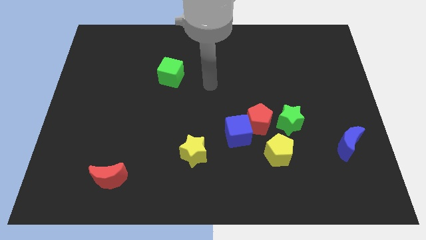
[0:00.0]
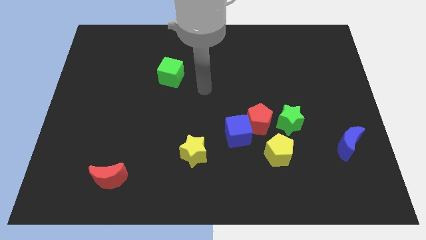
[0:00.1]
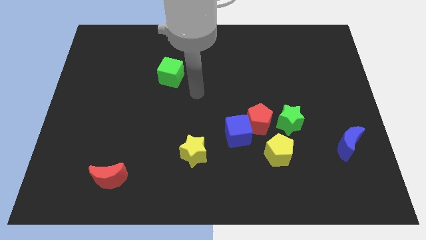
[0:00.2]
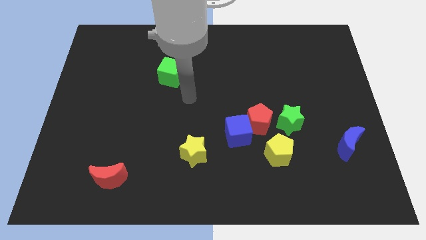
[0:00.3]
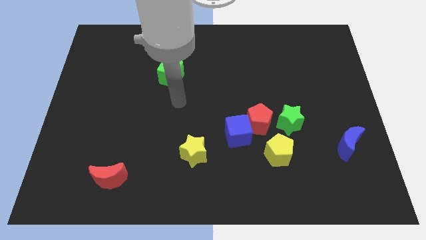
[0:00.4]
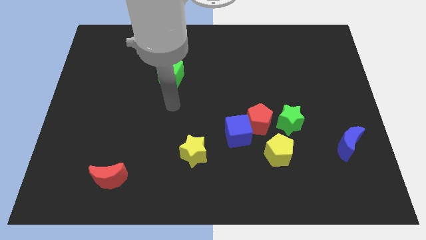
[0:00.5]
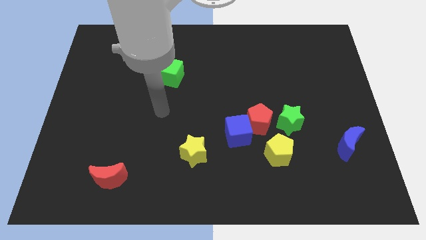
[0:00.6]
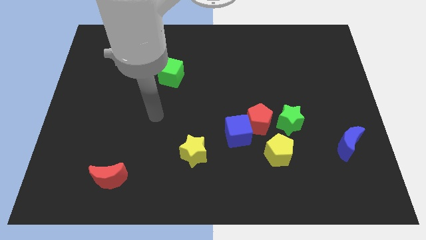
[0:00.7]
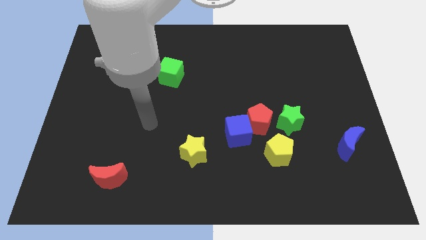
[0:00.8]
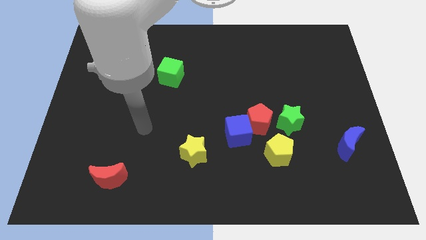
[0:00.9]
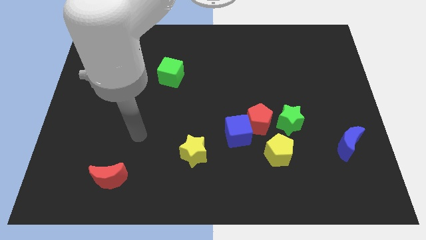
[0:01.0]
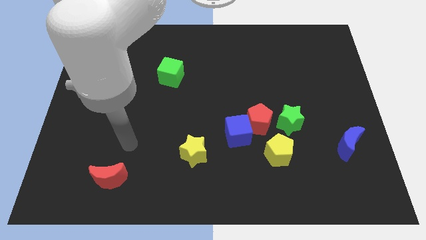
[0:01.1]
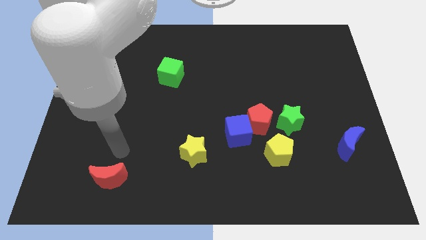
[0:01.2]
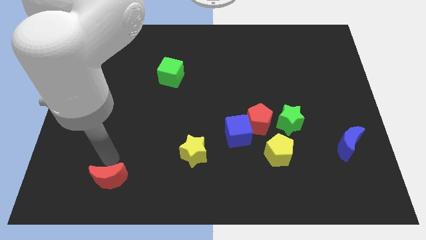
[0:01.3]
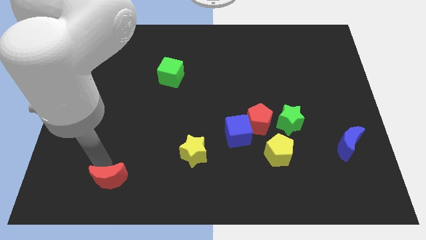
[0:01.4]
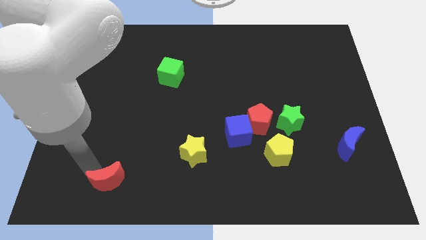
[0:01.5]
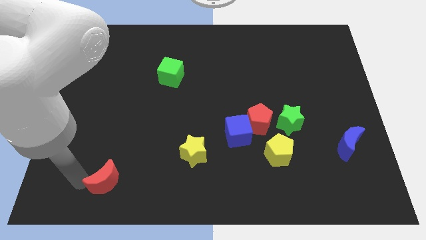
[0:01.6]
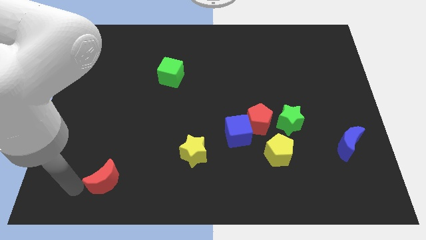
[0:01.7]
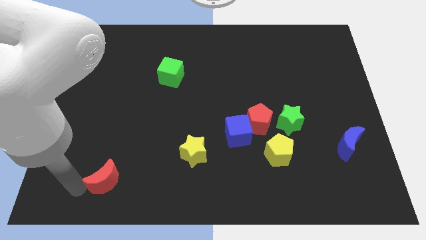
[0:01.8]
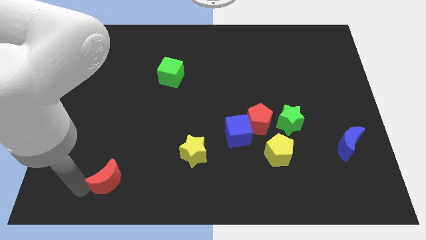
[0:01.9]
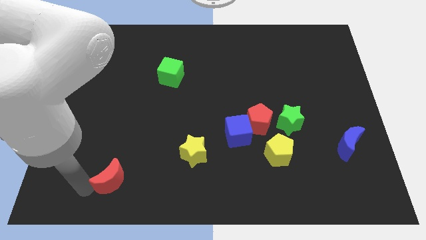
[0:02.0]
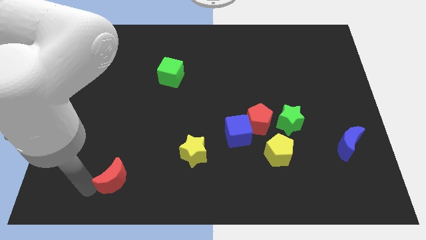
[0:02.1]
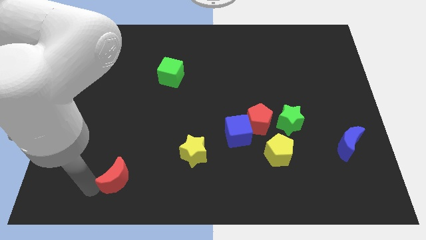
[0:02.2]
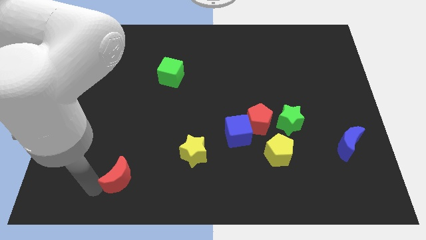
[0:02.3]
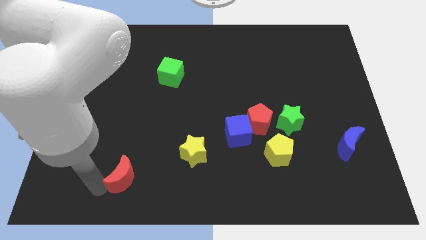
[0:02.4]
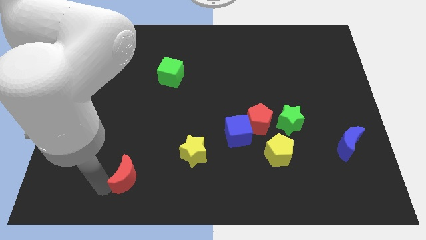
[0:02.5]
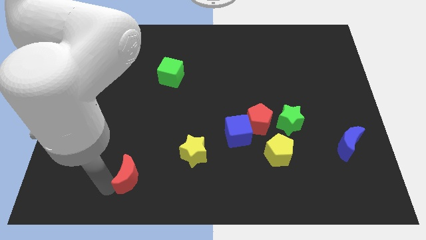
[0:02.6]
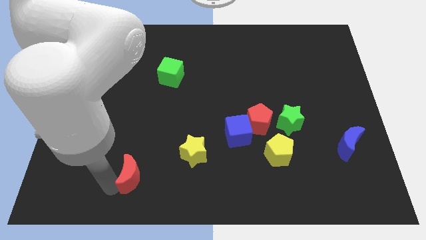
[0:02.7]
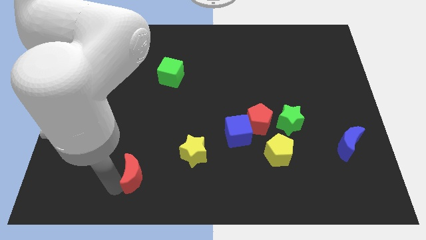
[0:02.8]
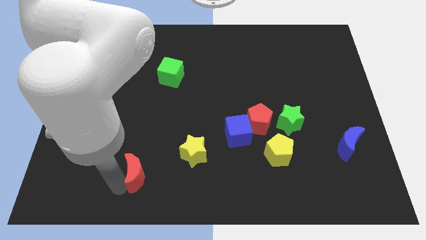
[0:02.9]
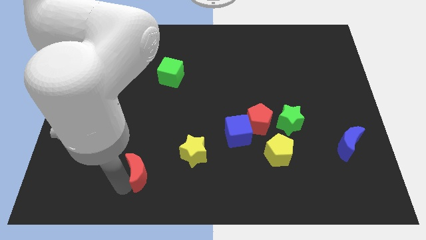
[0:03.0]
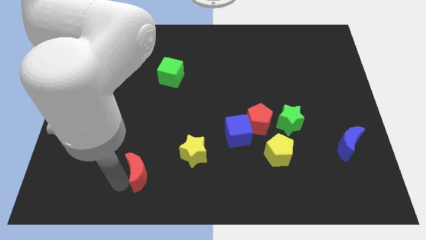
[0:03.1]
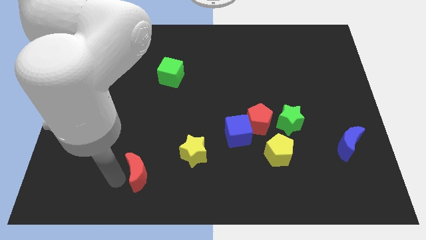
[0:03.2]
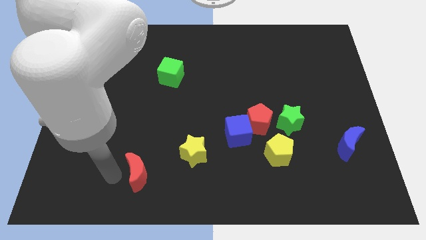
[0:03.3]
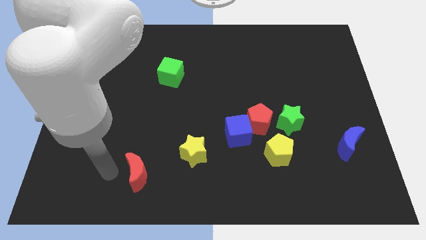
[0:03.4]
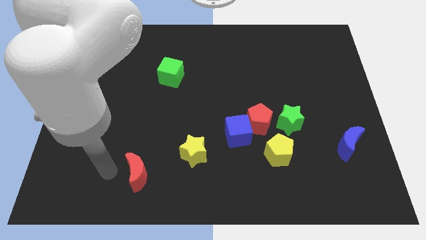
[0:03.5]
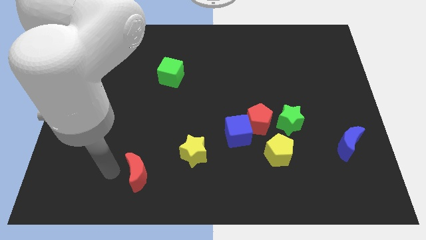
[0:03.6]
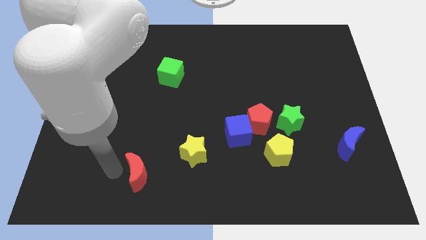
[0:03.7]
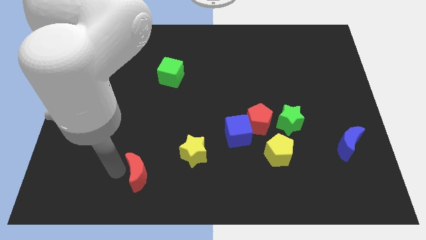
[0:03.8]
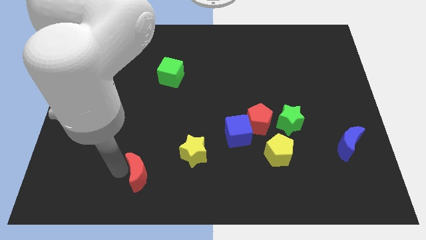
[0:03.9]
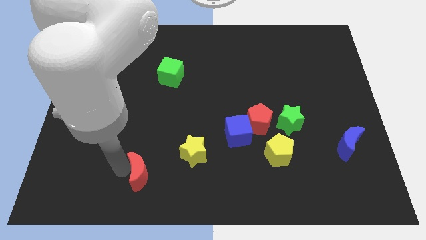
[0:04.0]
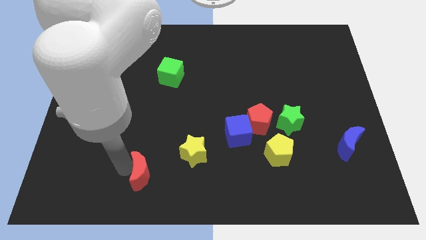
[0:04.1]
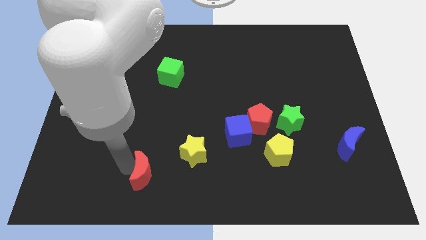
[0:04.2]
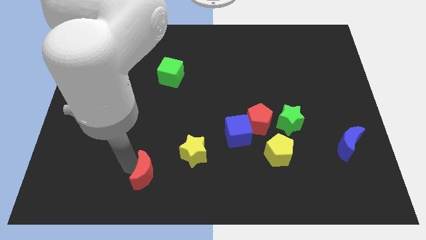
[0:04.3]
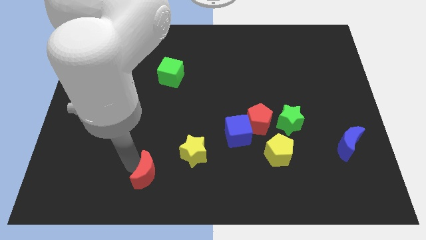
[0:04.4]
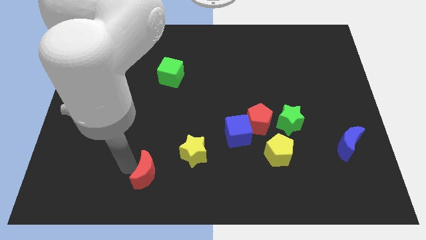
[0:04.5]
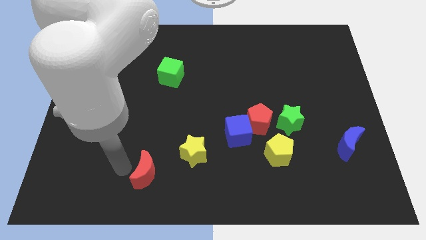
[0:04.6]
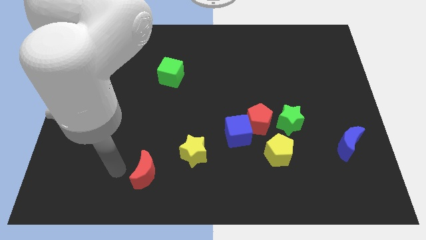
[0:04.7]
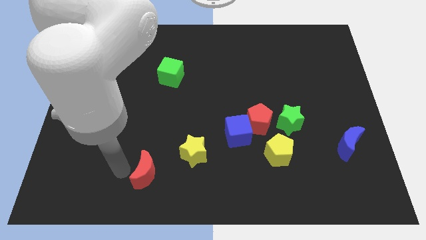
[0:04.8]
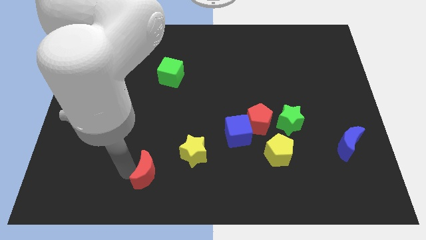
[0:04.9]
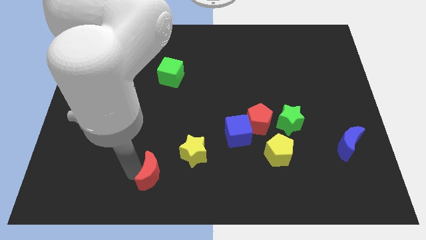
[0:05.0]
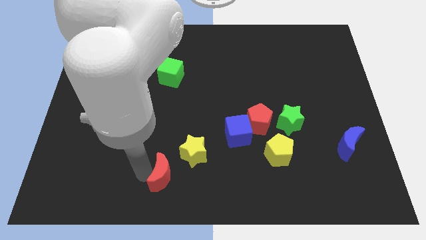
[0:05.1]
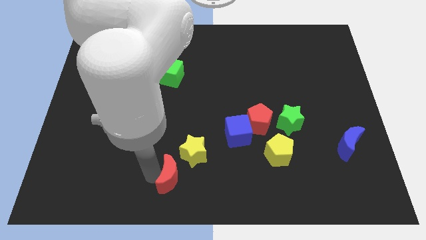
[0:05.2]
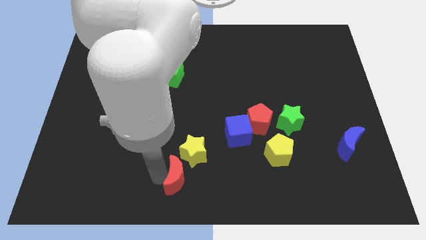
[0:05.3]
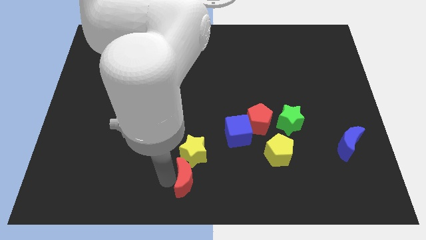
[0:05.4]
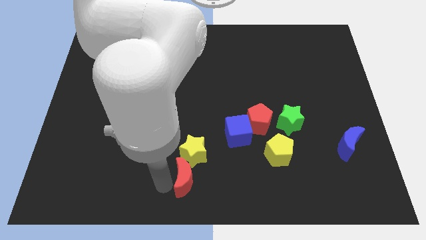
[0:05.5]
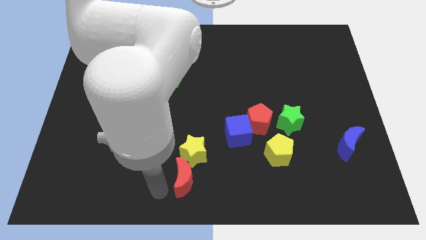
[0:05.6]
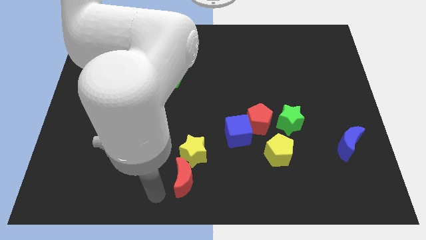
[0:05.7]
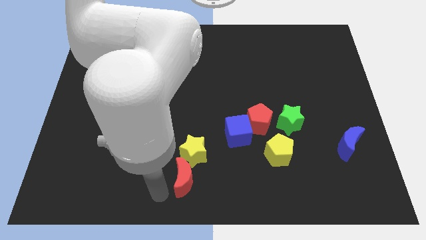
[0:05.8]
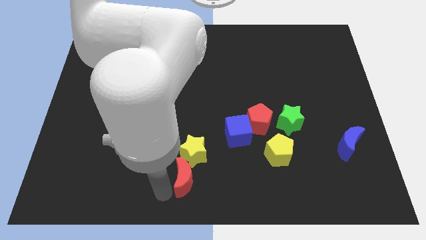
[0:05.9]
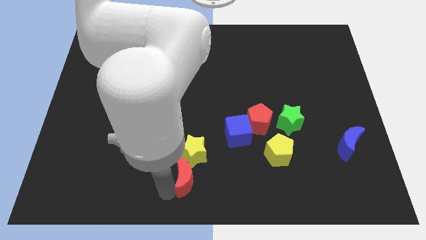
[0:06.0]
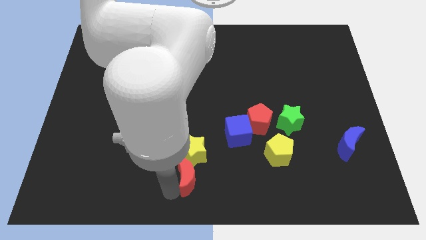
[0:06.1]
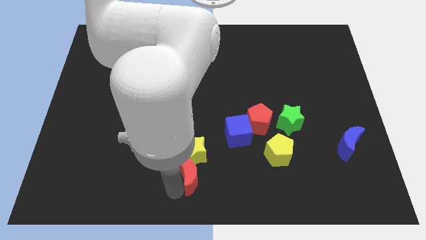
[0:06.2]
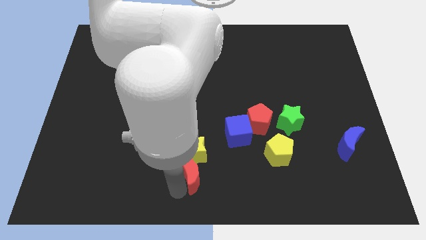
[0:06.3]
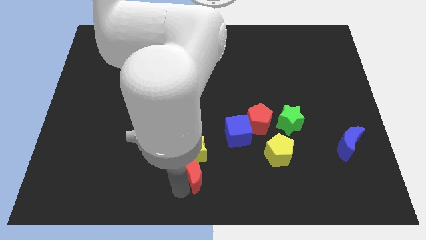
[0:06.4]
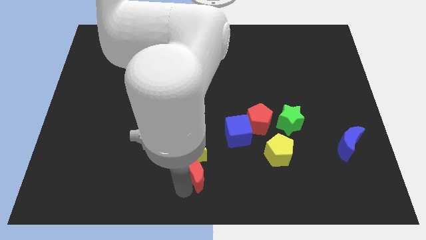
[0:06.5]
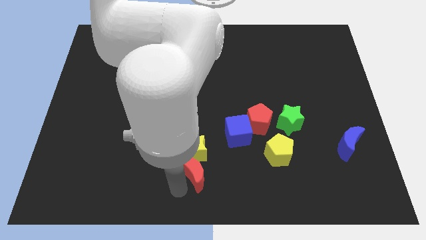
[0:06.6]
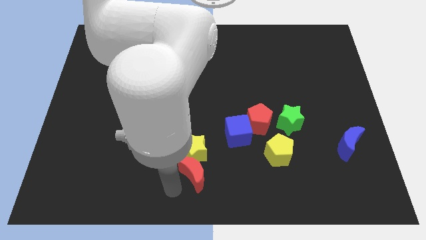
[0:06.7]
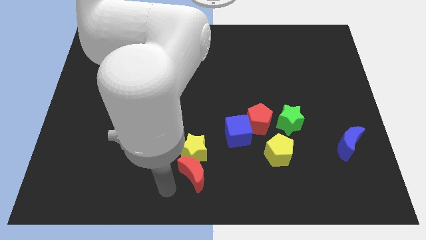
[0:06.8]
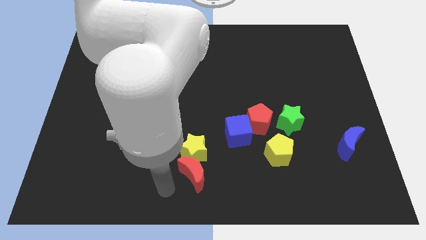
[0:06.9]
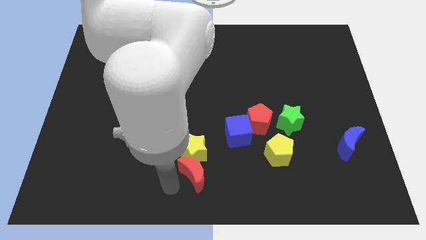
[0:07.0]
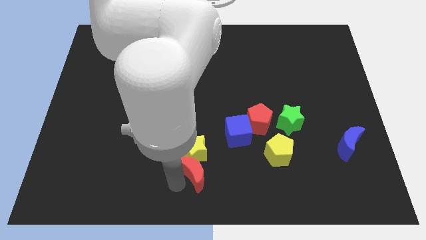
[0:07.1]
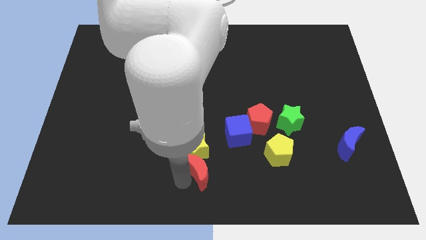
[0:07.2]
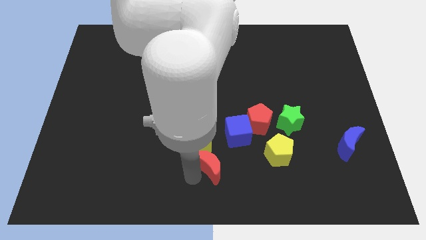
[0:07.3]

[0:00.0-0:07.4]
slide the red moon to the left of the yellow pentagon
